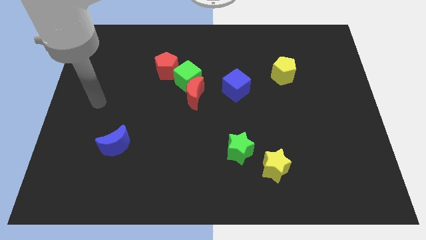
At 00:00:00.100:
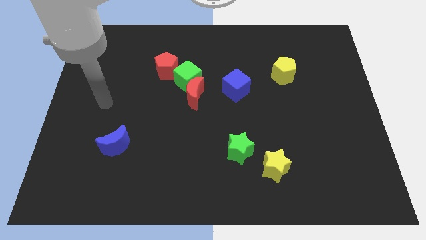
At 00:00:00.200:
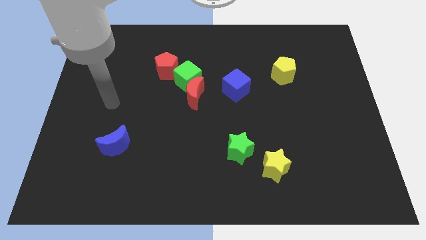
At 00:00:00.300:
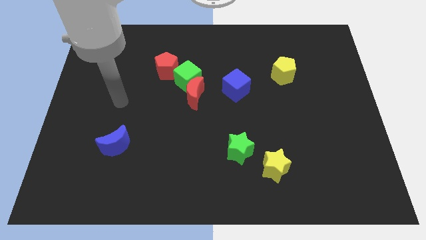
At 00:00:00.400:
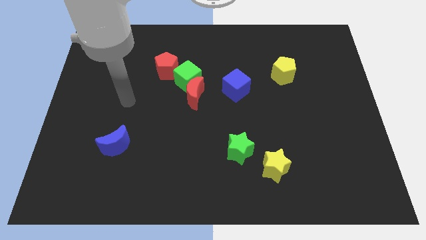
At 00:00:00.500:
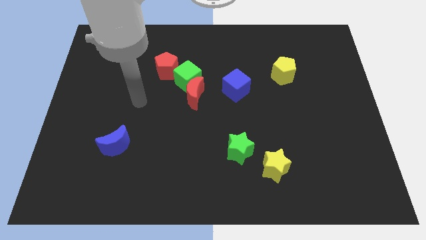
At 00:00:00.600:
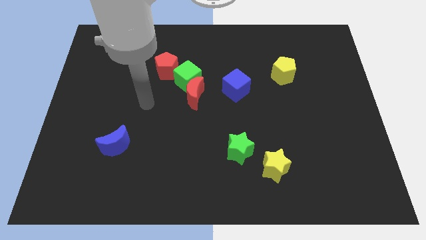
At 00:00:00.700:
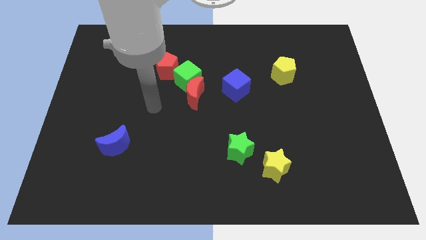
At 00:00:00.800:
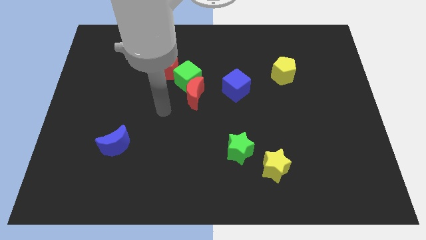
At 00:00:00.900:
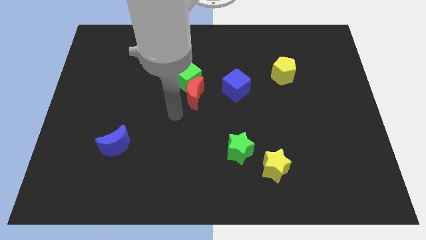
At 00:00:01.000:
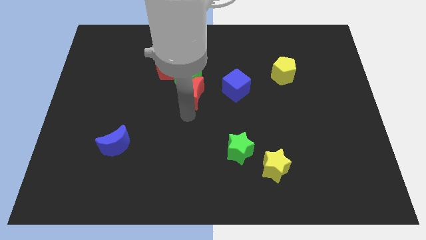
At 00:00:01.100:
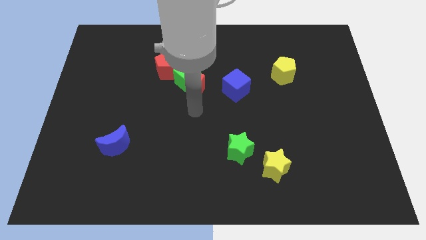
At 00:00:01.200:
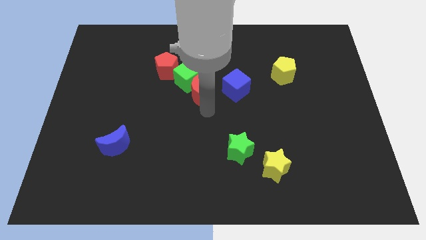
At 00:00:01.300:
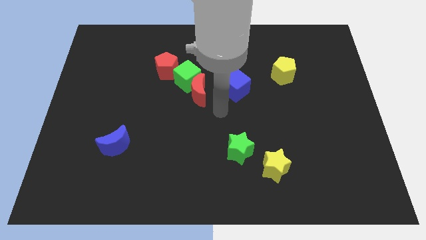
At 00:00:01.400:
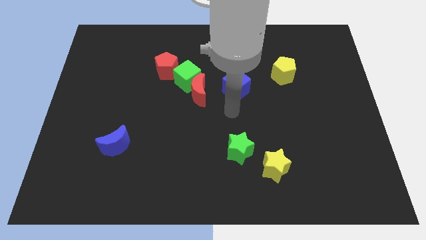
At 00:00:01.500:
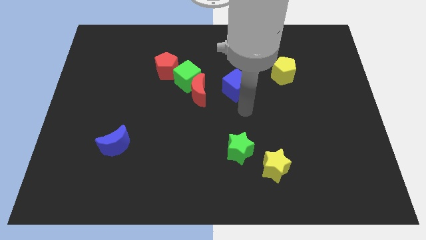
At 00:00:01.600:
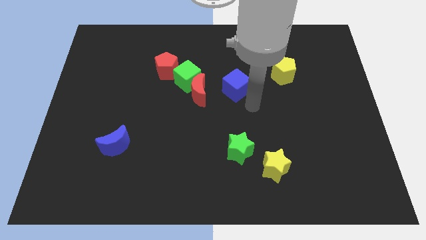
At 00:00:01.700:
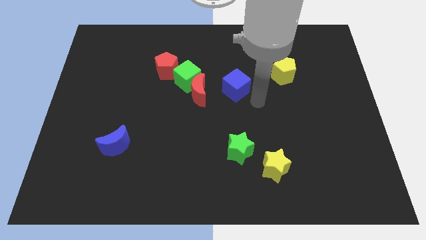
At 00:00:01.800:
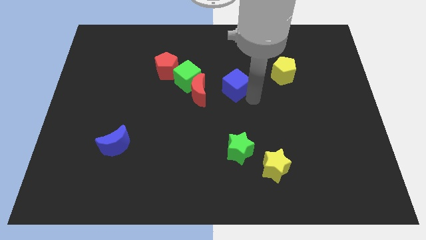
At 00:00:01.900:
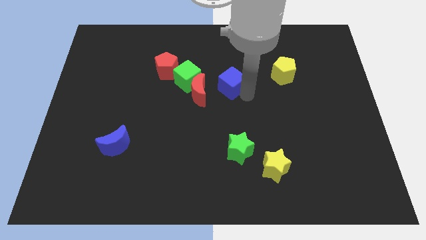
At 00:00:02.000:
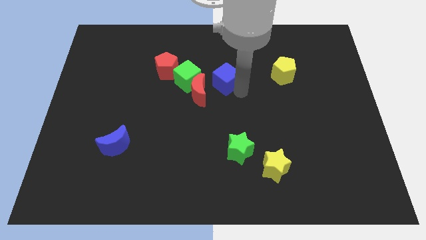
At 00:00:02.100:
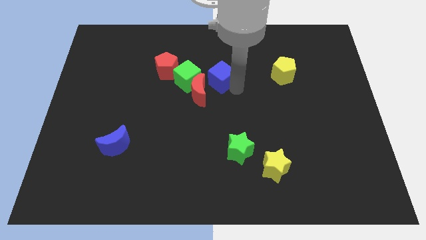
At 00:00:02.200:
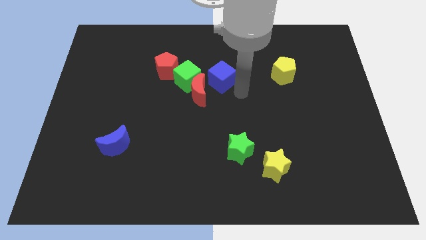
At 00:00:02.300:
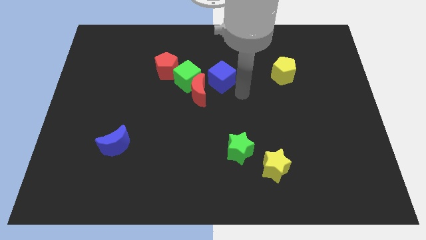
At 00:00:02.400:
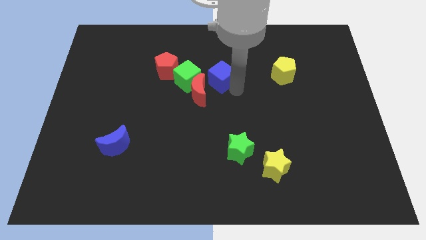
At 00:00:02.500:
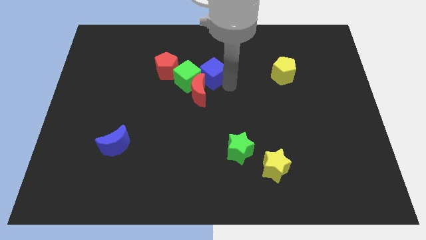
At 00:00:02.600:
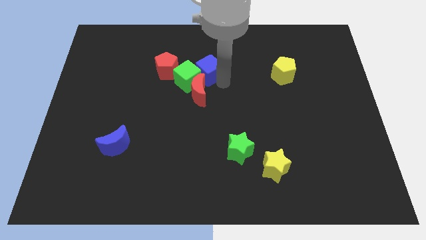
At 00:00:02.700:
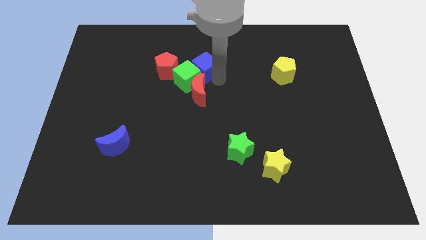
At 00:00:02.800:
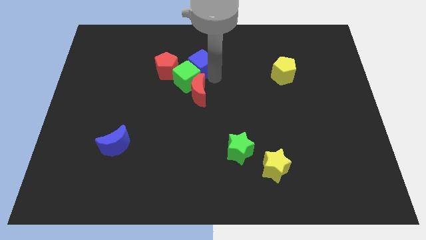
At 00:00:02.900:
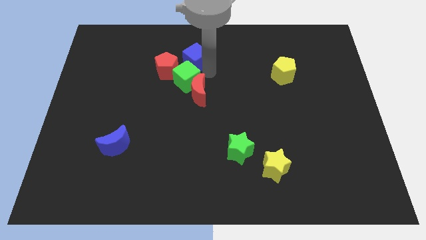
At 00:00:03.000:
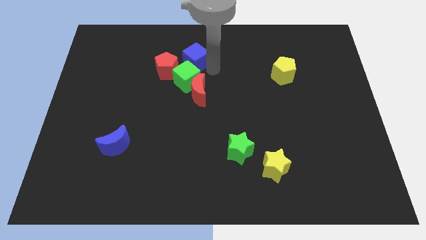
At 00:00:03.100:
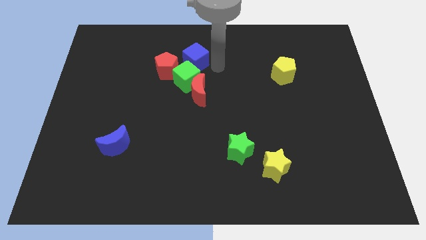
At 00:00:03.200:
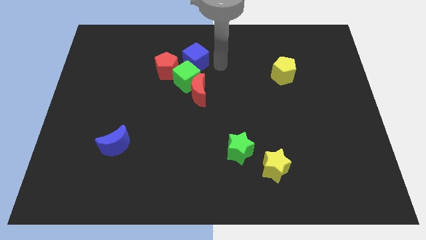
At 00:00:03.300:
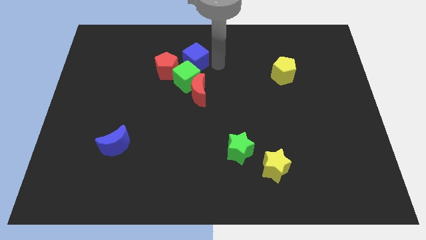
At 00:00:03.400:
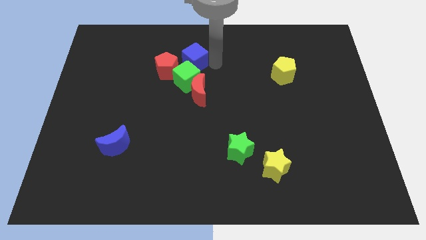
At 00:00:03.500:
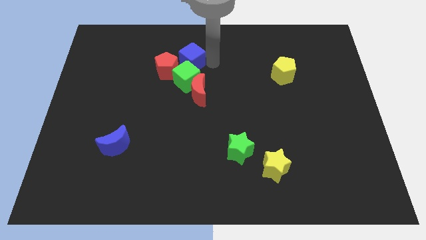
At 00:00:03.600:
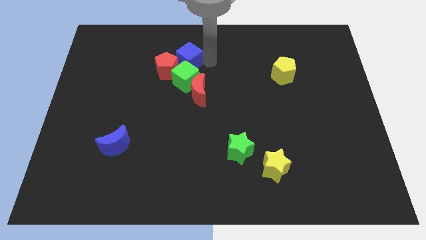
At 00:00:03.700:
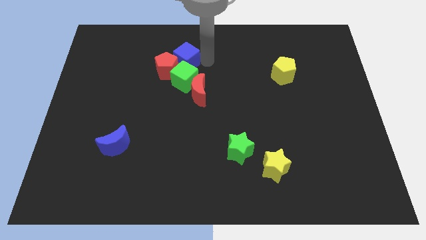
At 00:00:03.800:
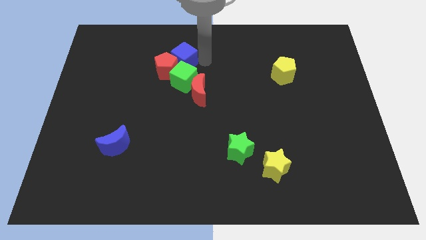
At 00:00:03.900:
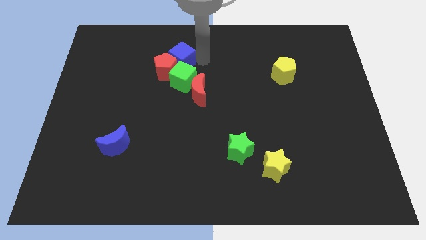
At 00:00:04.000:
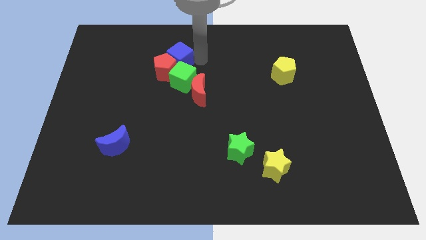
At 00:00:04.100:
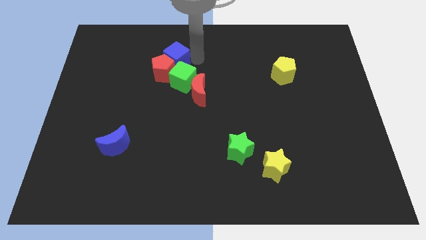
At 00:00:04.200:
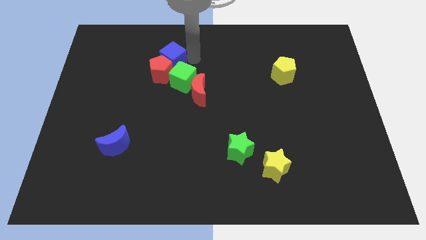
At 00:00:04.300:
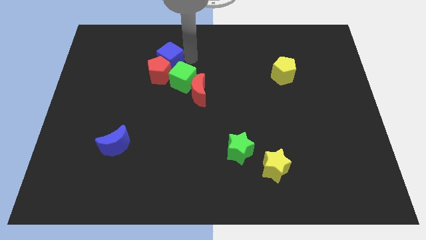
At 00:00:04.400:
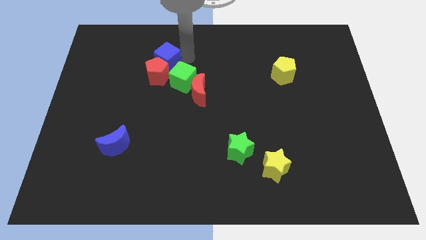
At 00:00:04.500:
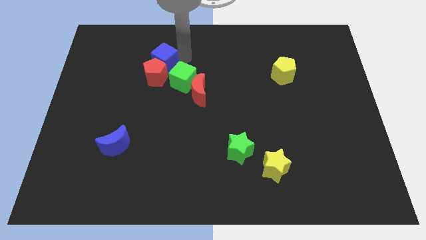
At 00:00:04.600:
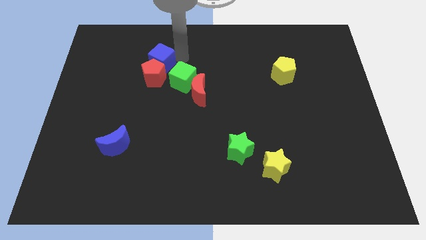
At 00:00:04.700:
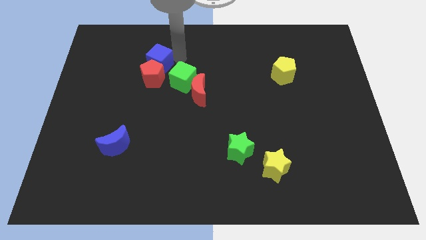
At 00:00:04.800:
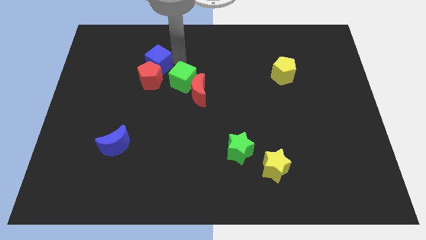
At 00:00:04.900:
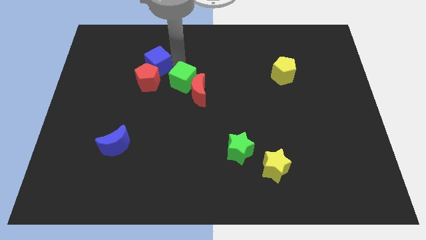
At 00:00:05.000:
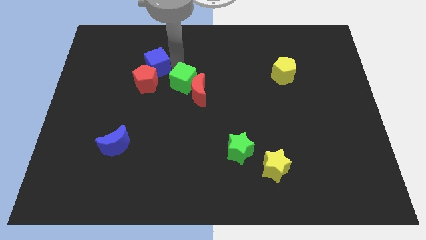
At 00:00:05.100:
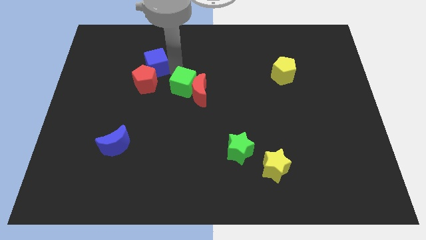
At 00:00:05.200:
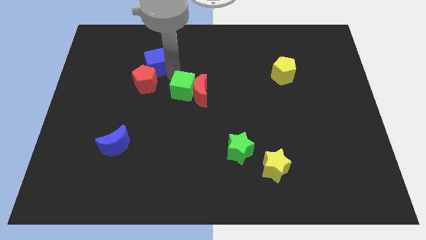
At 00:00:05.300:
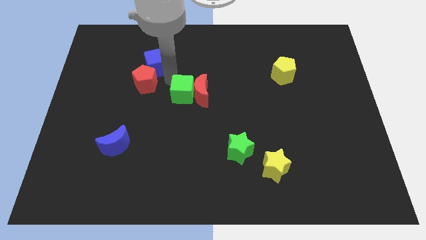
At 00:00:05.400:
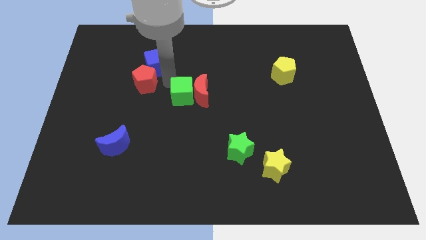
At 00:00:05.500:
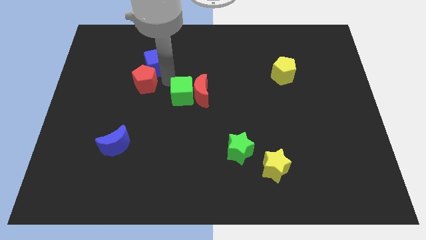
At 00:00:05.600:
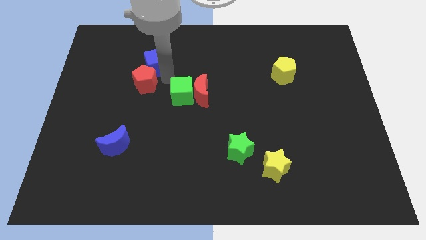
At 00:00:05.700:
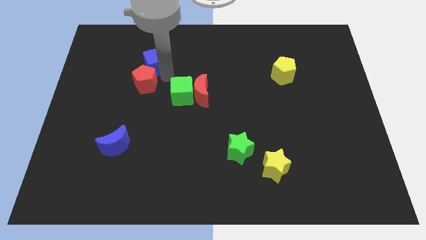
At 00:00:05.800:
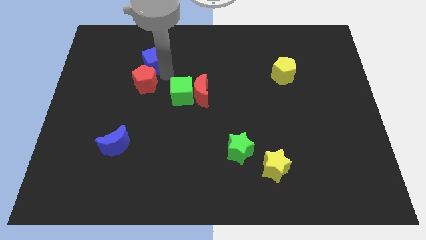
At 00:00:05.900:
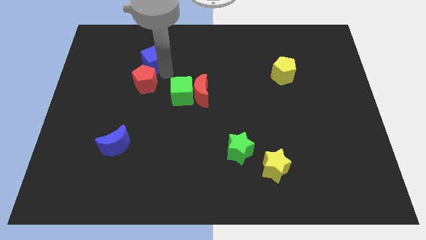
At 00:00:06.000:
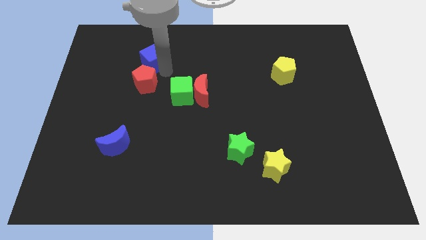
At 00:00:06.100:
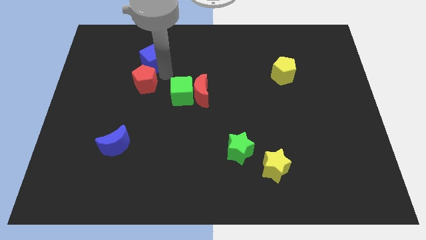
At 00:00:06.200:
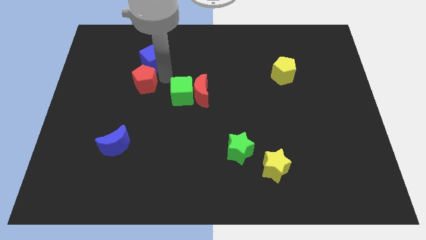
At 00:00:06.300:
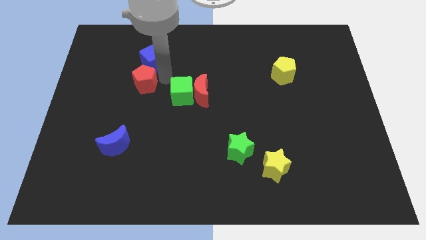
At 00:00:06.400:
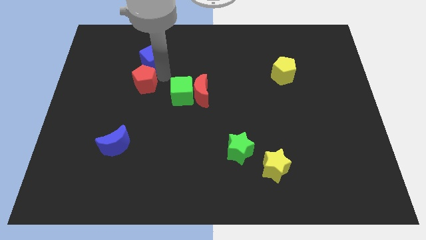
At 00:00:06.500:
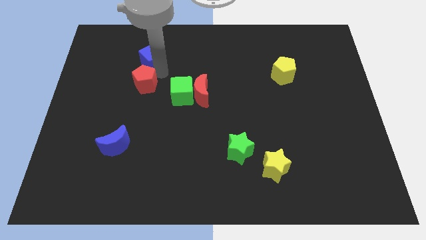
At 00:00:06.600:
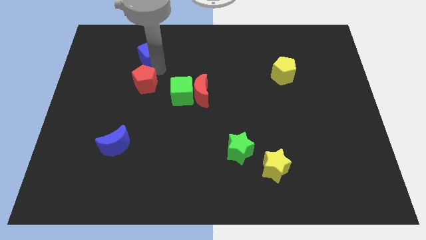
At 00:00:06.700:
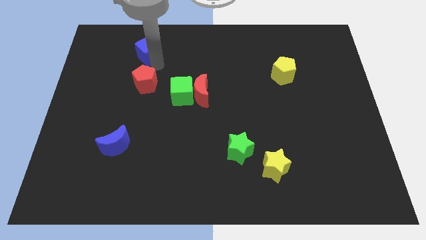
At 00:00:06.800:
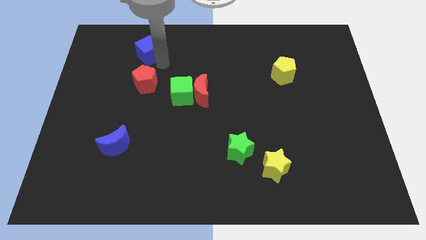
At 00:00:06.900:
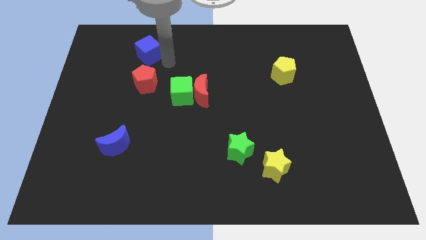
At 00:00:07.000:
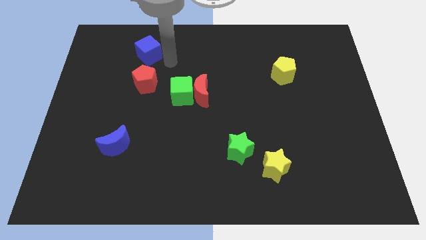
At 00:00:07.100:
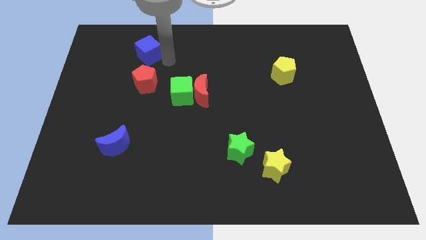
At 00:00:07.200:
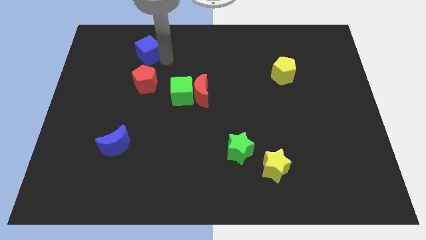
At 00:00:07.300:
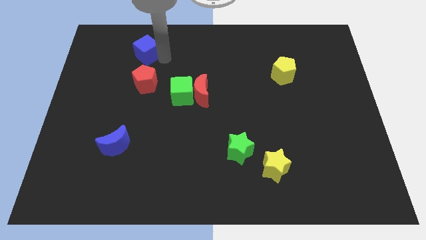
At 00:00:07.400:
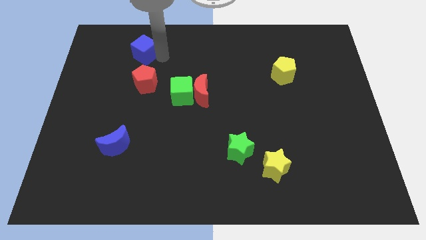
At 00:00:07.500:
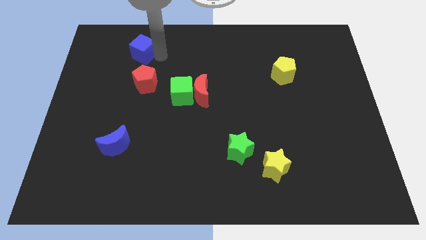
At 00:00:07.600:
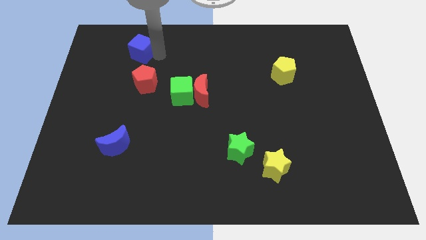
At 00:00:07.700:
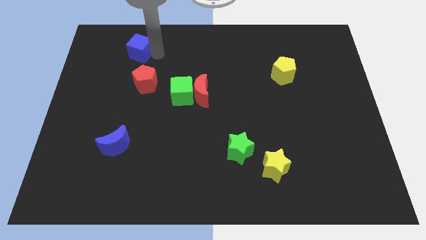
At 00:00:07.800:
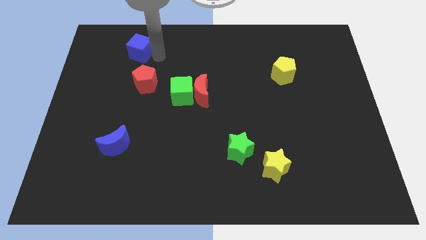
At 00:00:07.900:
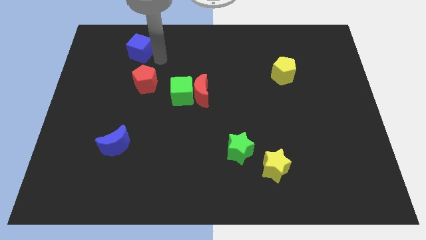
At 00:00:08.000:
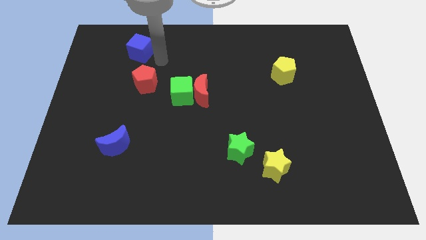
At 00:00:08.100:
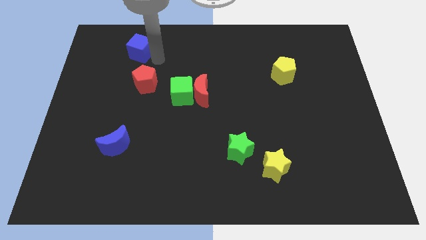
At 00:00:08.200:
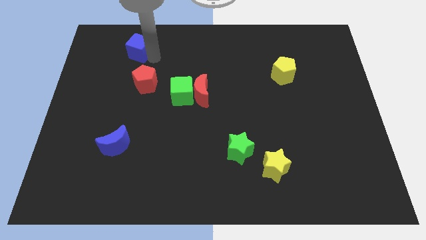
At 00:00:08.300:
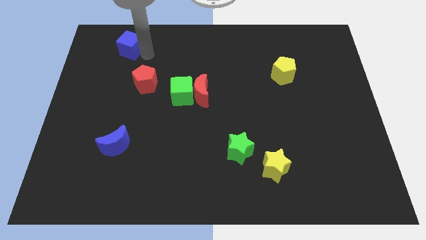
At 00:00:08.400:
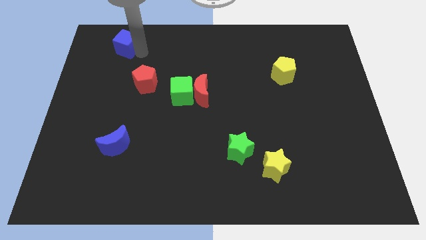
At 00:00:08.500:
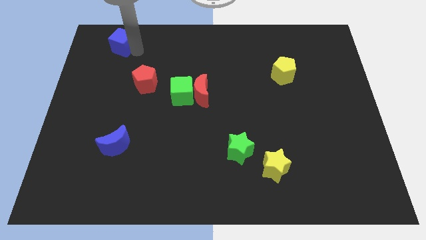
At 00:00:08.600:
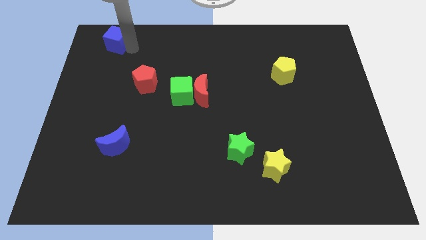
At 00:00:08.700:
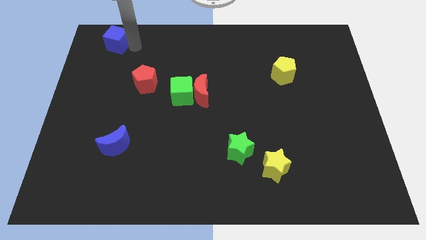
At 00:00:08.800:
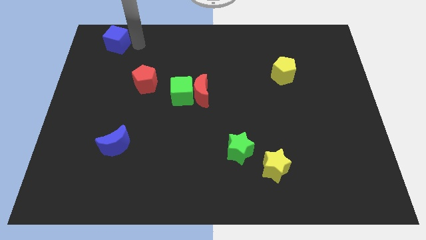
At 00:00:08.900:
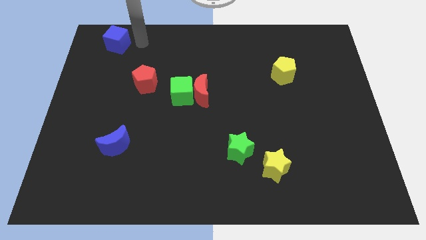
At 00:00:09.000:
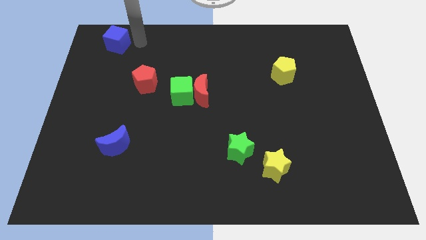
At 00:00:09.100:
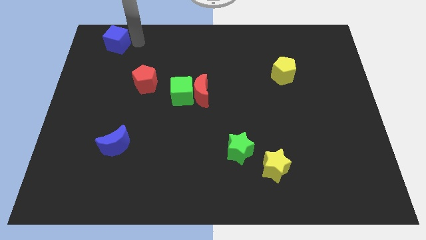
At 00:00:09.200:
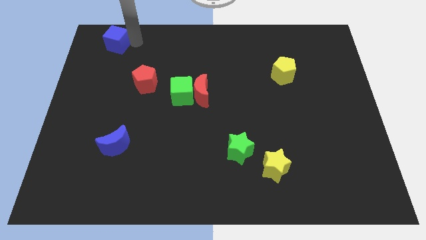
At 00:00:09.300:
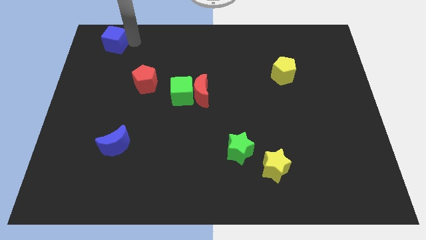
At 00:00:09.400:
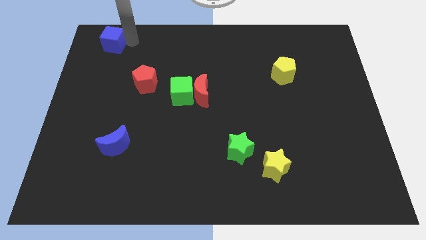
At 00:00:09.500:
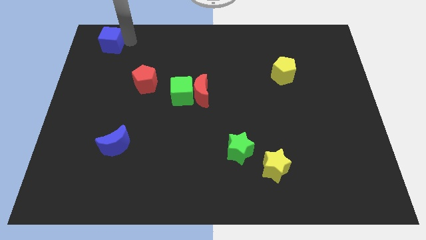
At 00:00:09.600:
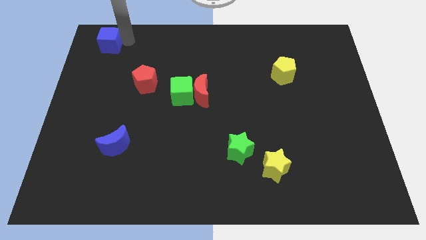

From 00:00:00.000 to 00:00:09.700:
slide the blue cube to the top left
